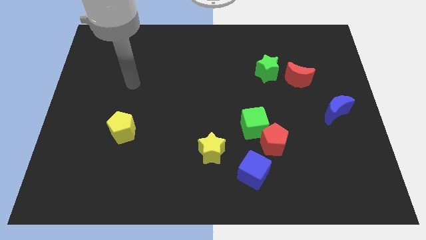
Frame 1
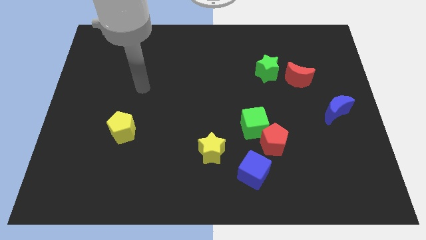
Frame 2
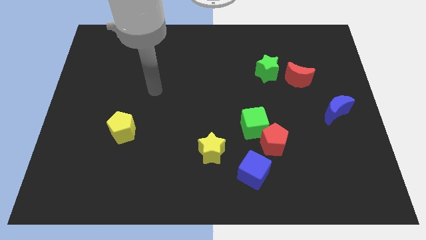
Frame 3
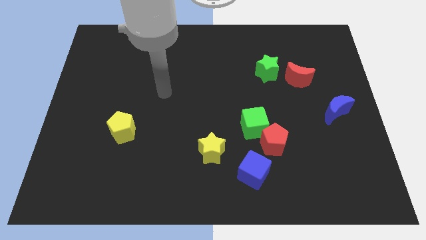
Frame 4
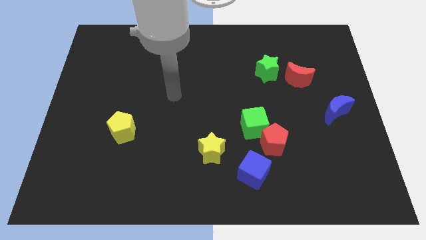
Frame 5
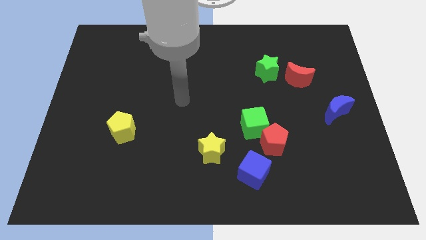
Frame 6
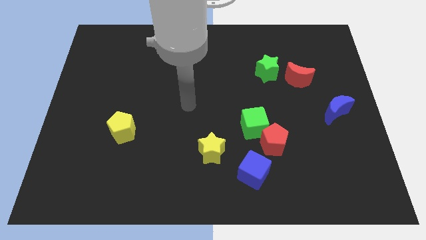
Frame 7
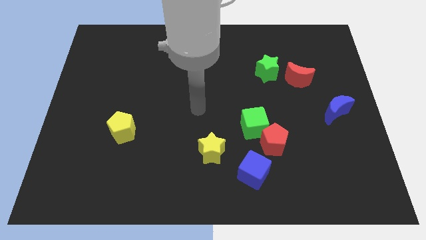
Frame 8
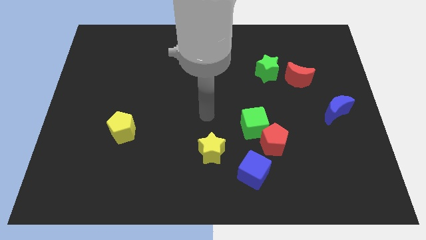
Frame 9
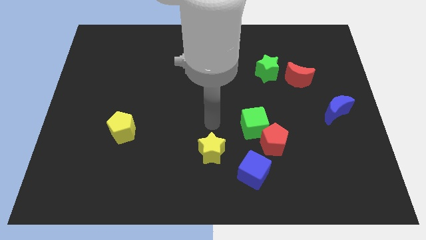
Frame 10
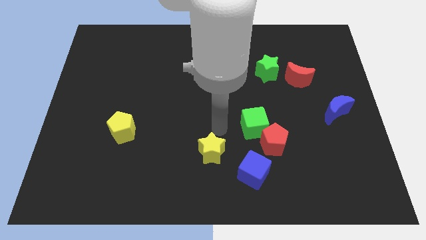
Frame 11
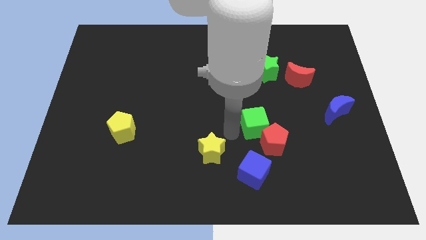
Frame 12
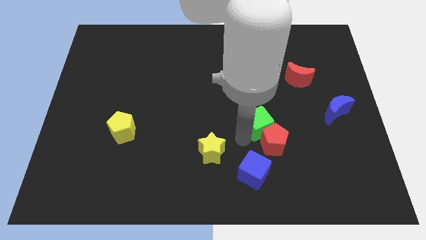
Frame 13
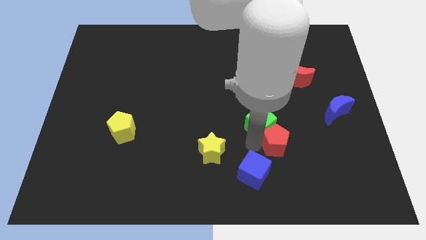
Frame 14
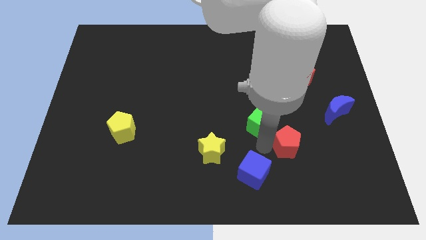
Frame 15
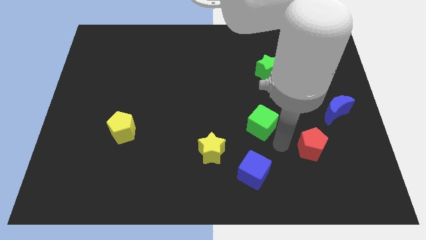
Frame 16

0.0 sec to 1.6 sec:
pull the green cube apart from the red pentagon

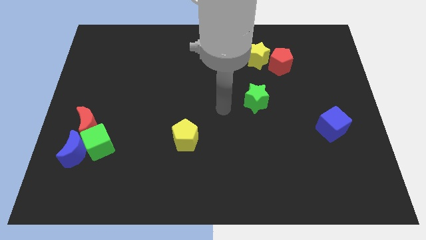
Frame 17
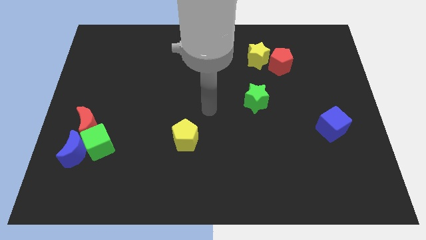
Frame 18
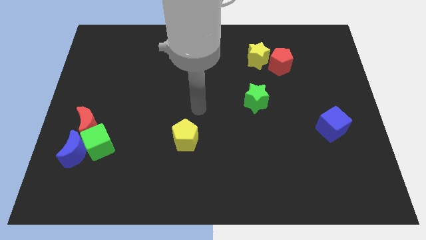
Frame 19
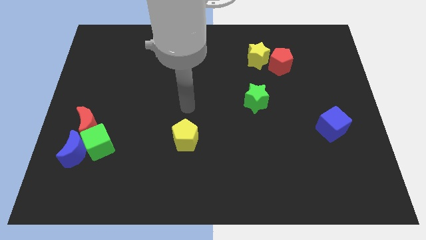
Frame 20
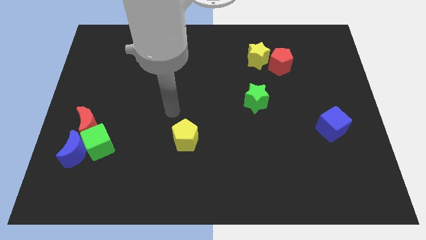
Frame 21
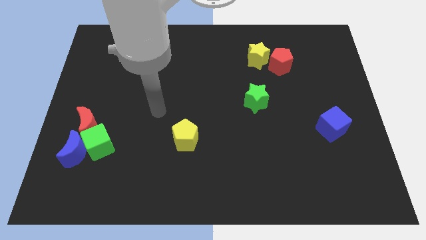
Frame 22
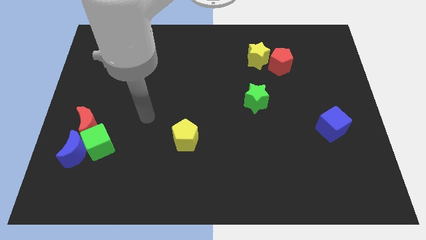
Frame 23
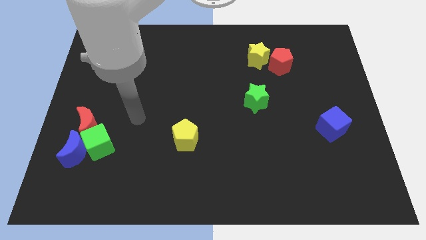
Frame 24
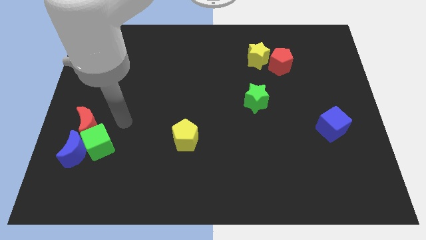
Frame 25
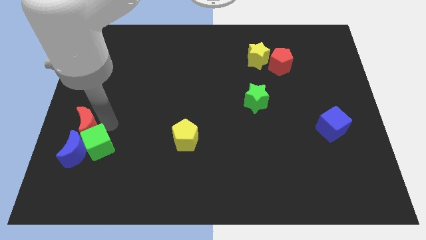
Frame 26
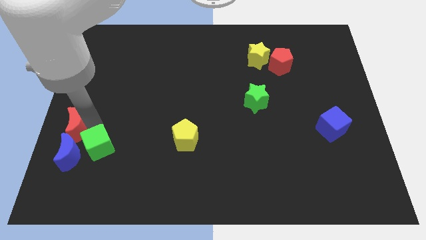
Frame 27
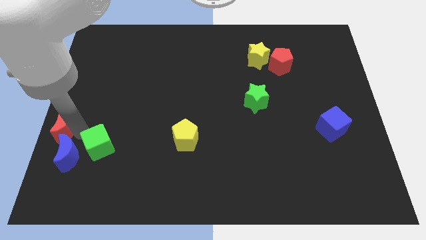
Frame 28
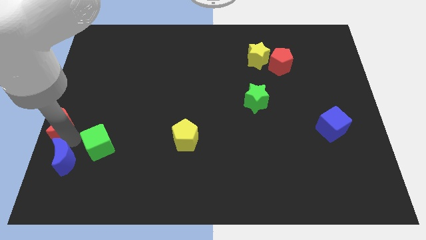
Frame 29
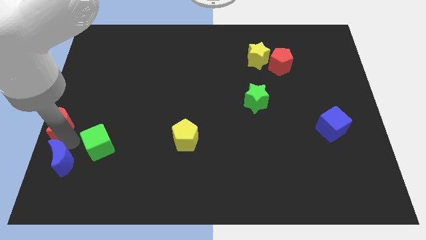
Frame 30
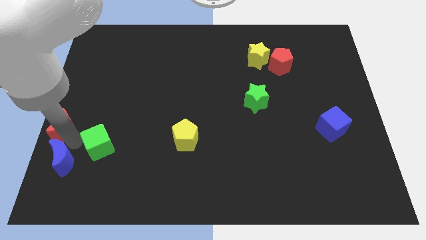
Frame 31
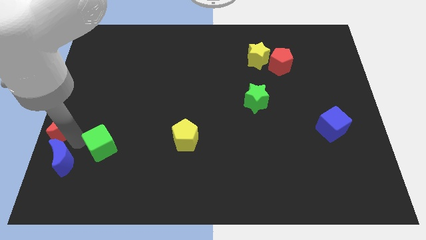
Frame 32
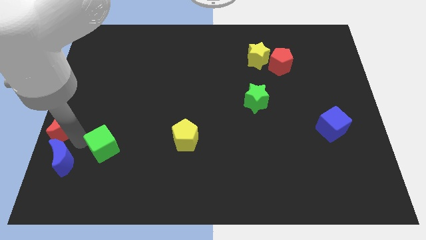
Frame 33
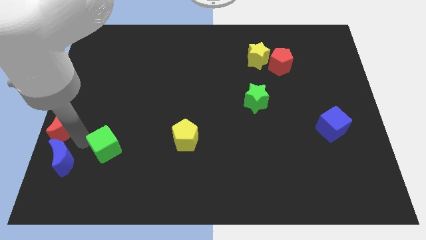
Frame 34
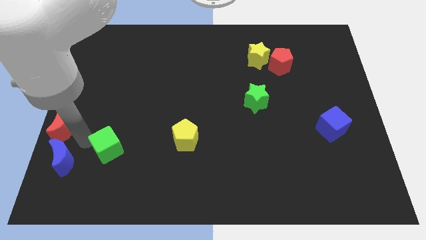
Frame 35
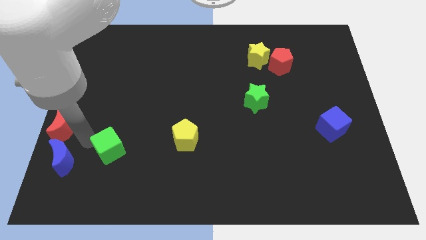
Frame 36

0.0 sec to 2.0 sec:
separate the green cube from the blue moon and red moon

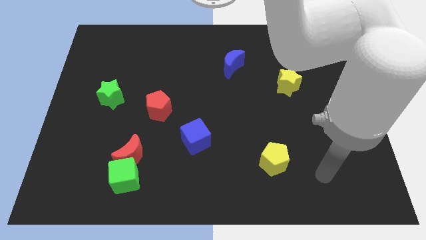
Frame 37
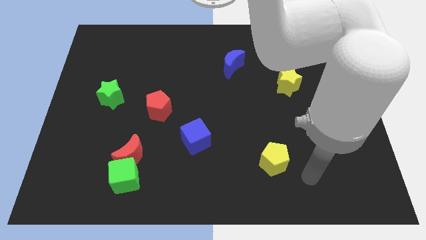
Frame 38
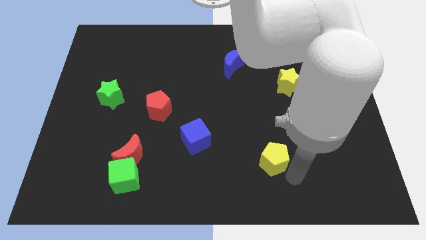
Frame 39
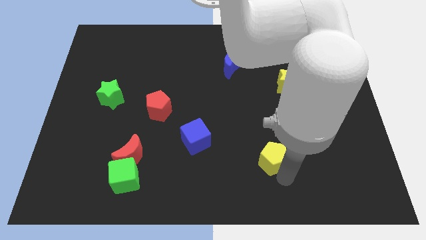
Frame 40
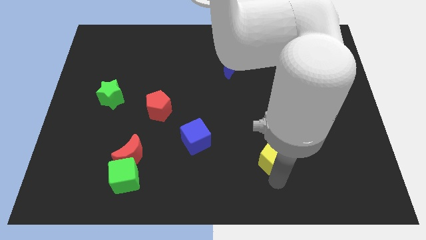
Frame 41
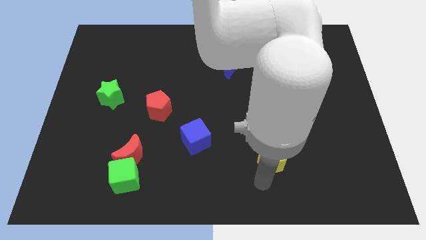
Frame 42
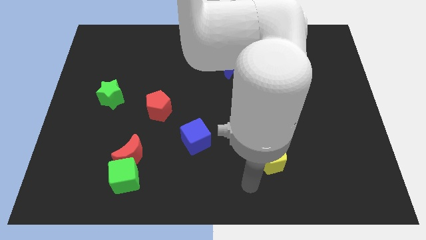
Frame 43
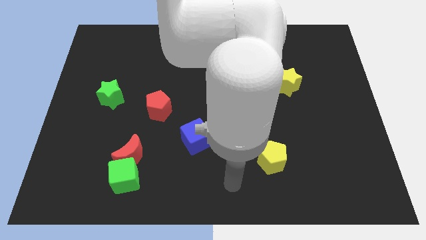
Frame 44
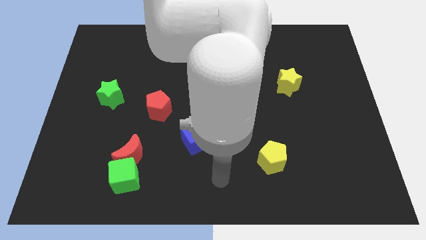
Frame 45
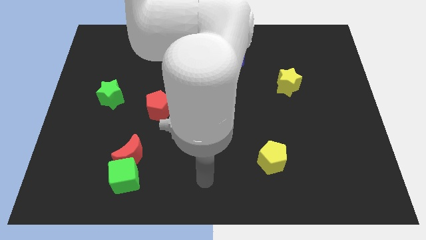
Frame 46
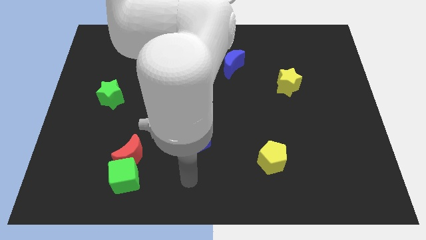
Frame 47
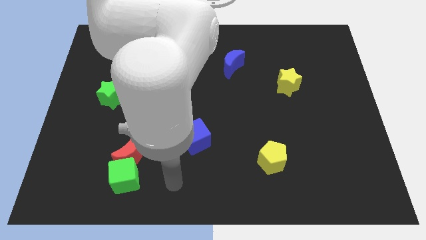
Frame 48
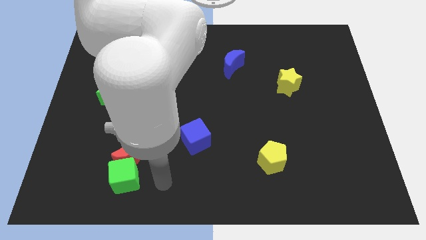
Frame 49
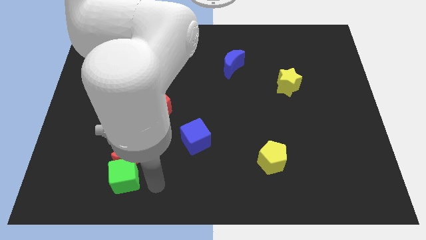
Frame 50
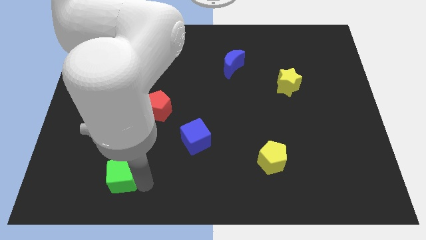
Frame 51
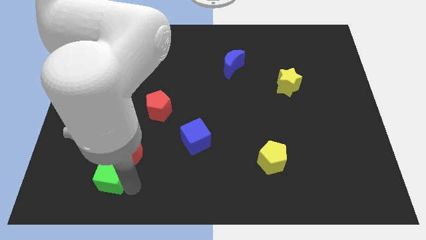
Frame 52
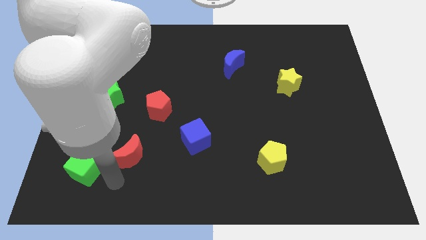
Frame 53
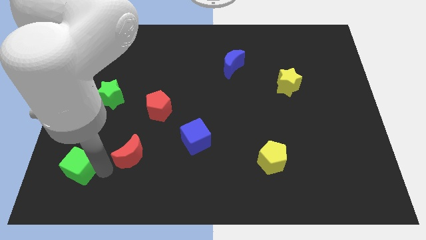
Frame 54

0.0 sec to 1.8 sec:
move the red moon away from the green cube

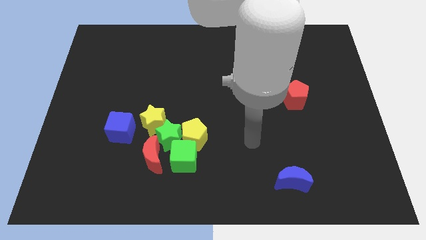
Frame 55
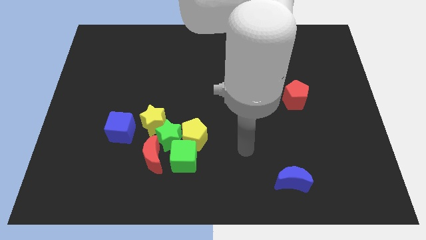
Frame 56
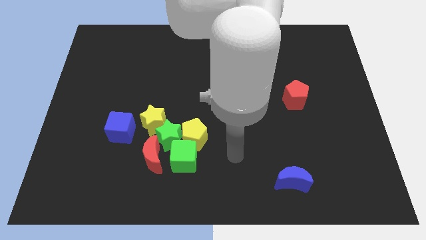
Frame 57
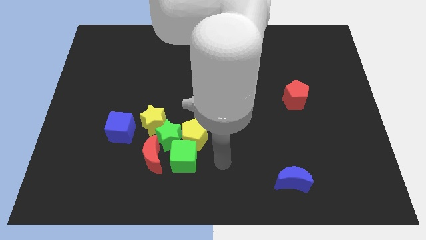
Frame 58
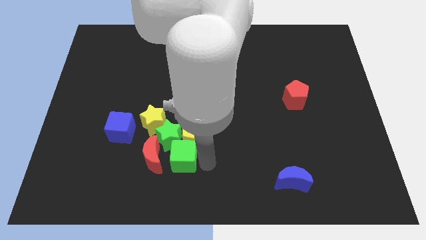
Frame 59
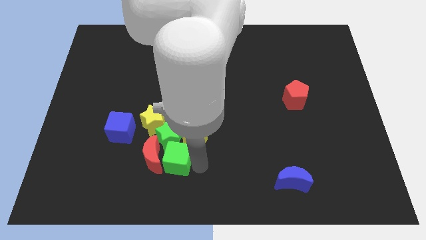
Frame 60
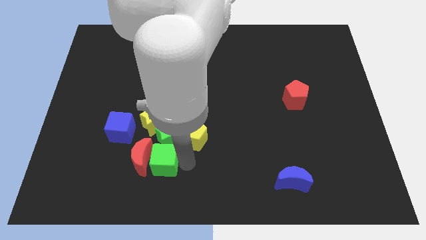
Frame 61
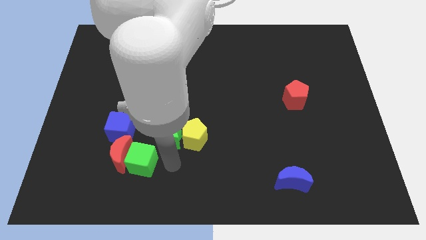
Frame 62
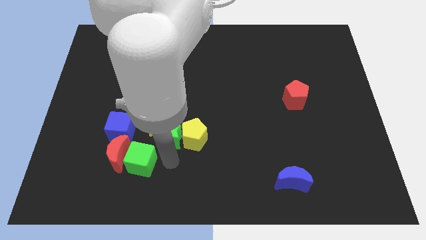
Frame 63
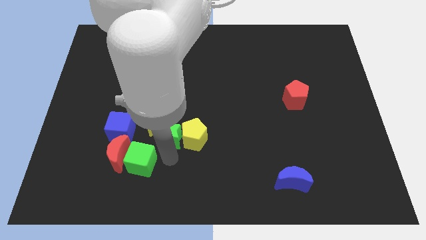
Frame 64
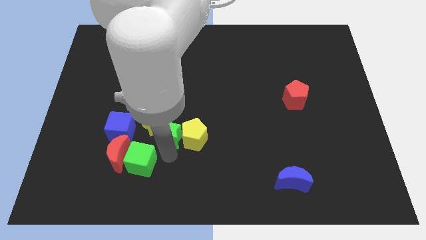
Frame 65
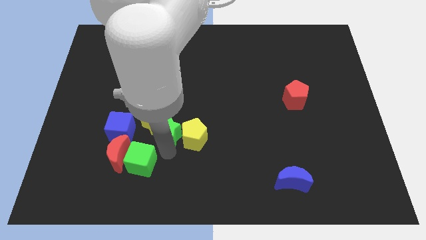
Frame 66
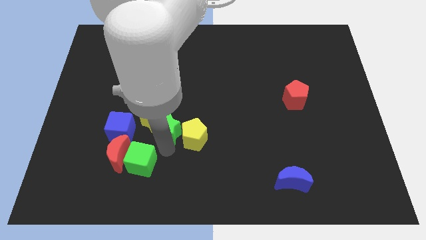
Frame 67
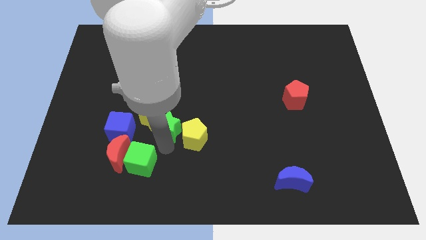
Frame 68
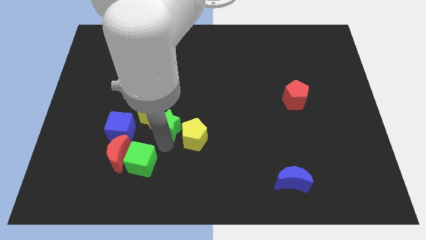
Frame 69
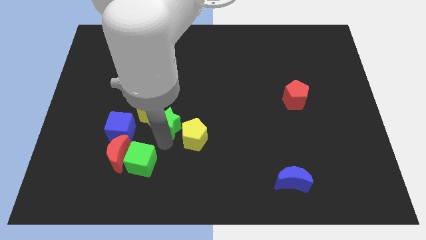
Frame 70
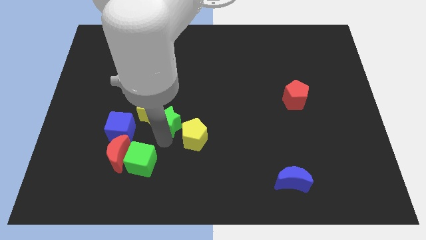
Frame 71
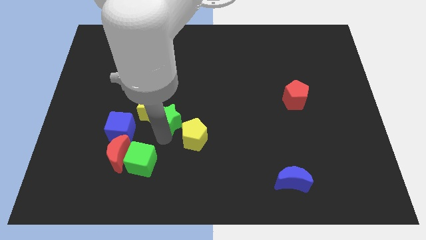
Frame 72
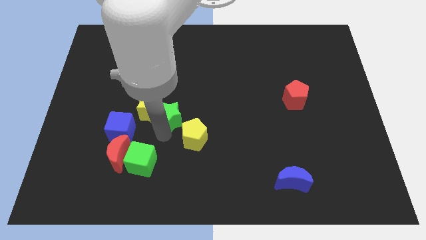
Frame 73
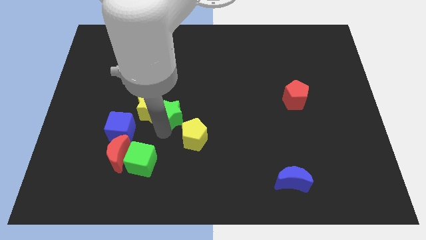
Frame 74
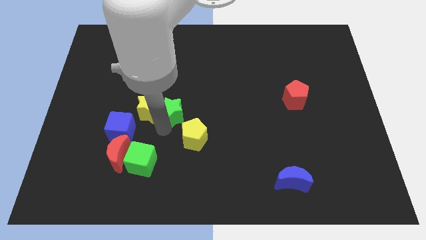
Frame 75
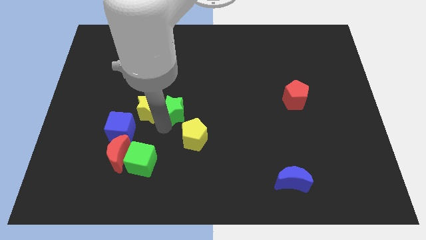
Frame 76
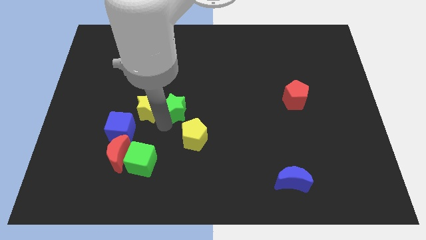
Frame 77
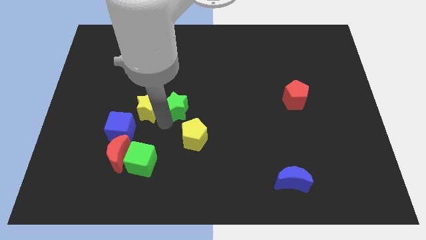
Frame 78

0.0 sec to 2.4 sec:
separate the green star from the group

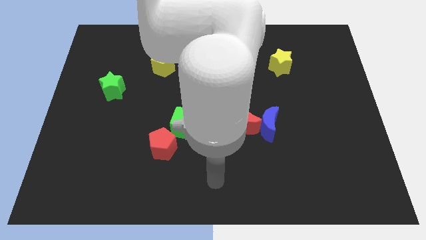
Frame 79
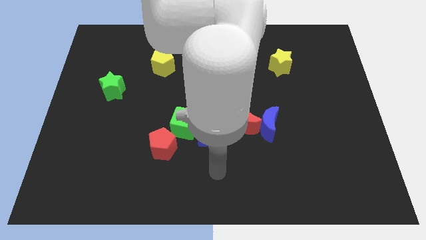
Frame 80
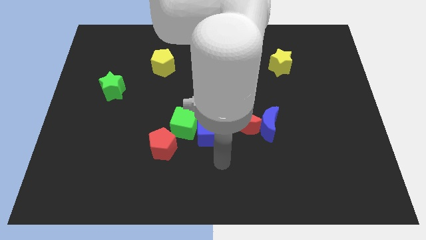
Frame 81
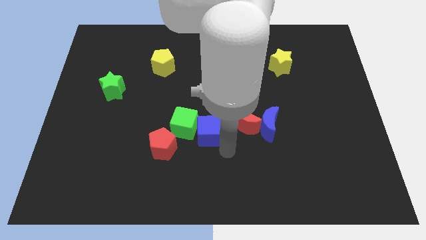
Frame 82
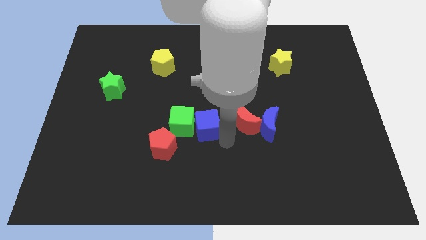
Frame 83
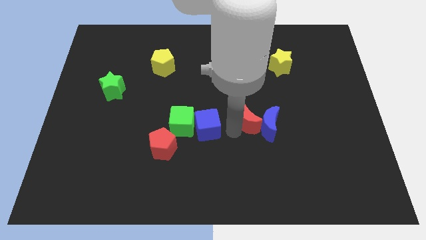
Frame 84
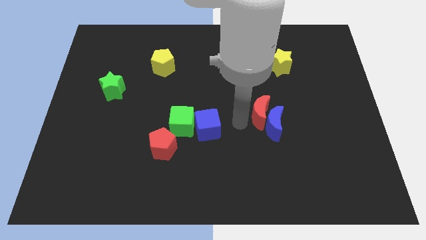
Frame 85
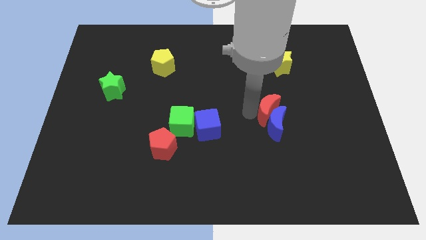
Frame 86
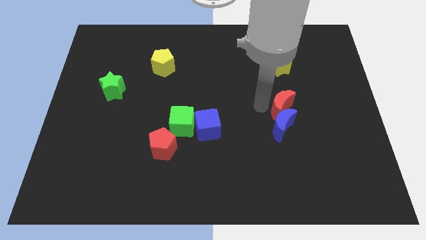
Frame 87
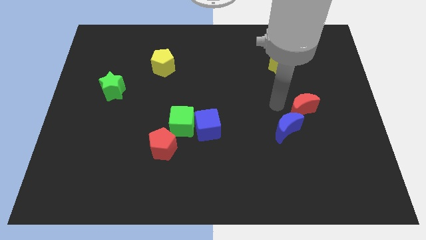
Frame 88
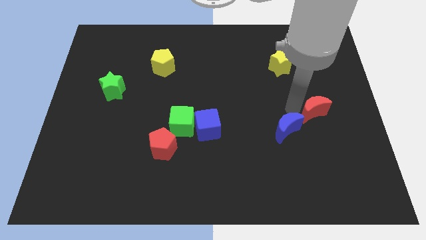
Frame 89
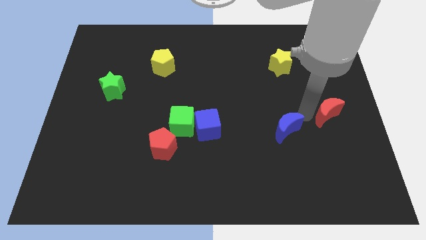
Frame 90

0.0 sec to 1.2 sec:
pull the blue moon apart from the red moon

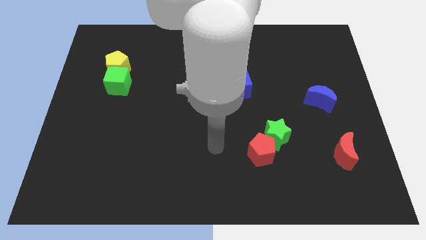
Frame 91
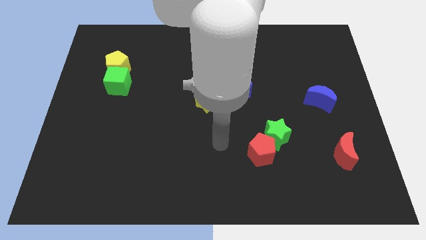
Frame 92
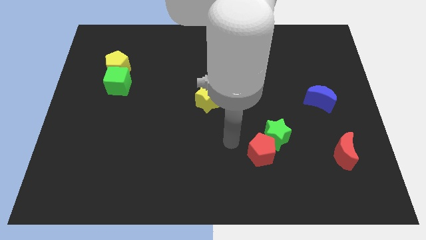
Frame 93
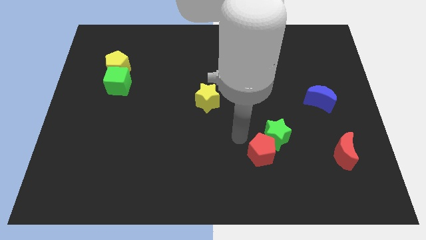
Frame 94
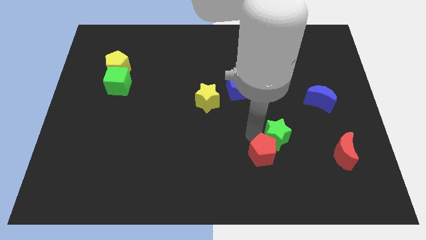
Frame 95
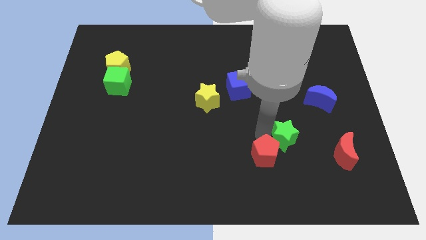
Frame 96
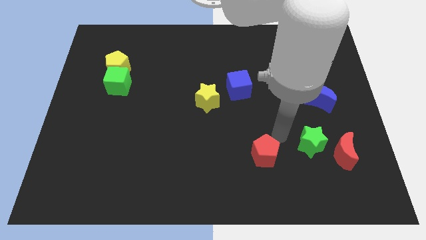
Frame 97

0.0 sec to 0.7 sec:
separate the red pentagon from the green star
